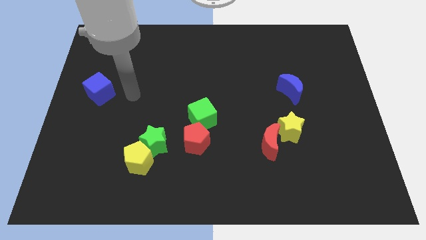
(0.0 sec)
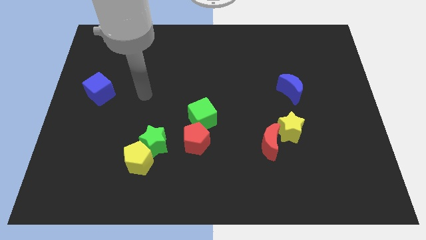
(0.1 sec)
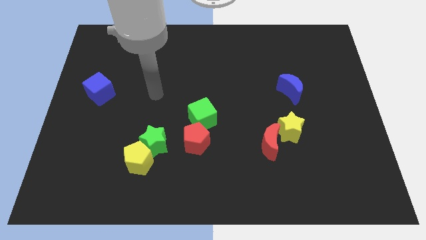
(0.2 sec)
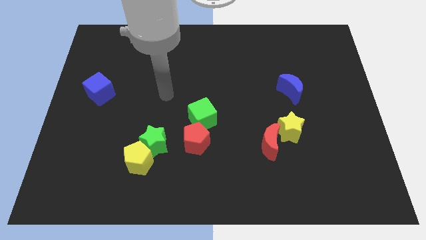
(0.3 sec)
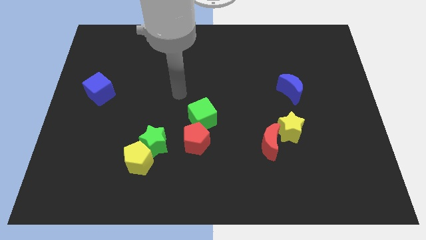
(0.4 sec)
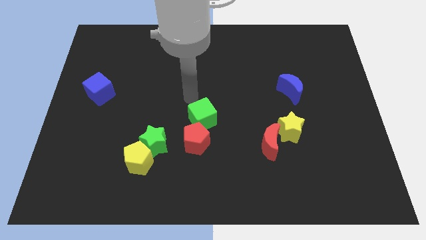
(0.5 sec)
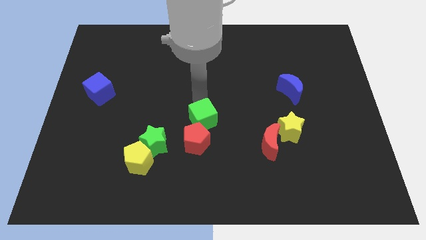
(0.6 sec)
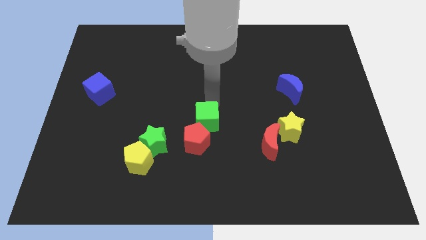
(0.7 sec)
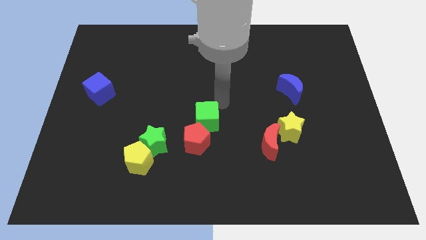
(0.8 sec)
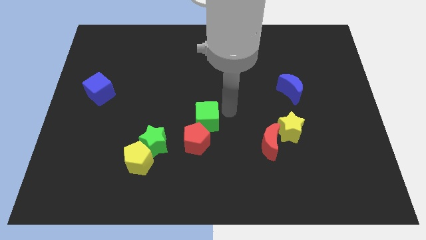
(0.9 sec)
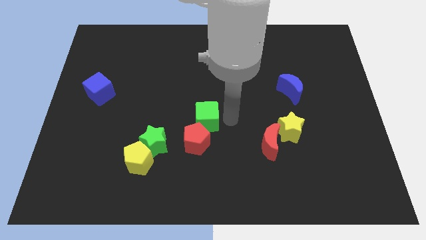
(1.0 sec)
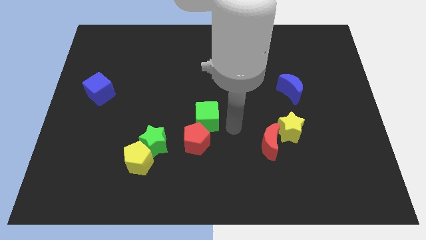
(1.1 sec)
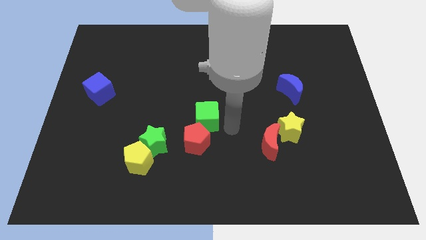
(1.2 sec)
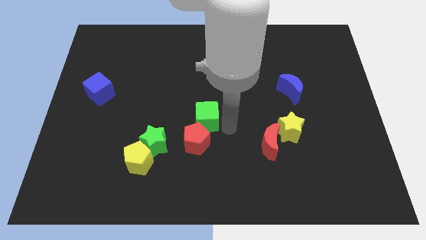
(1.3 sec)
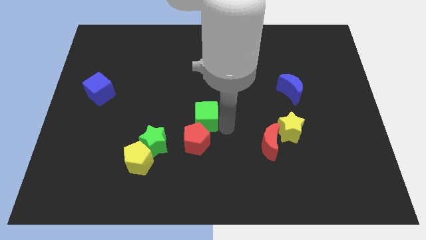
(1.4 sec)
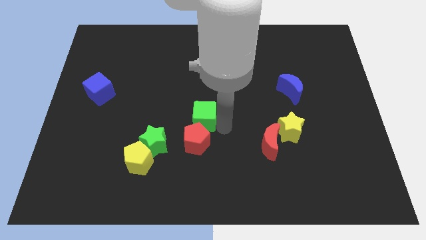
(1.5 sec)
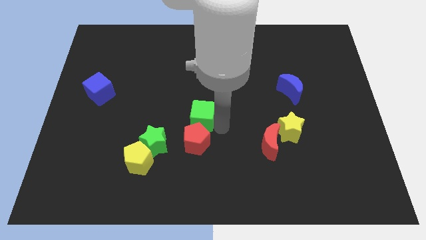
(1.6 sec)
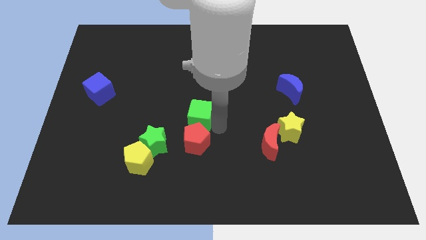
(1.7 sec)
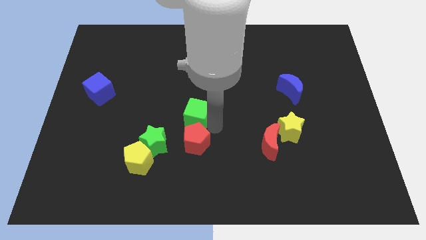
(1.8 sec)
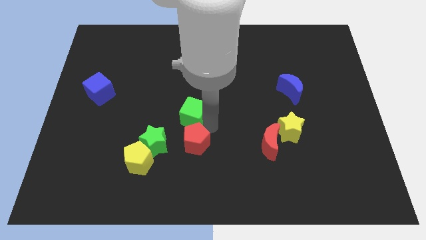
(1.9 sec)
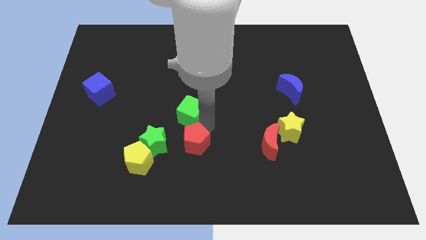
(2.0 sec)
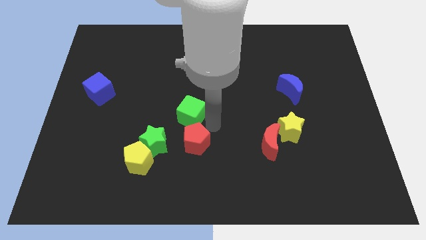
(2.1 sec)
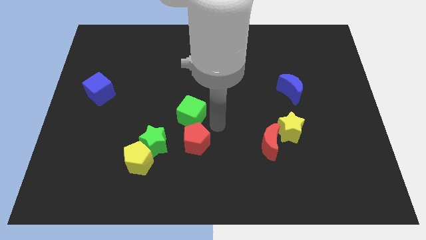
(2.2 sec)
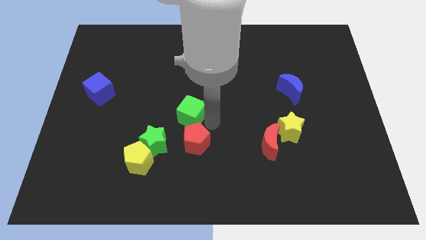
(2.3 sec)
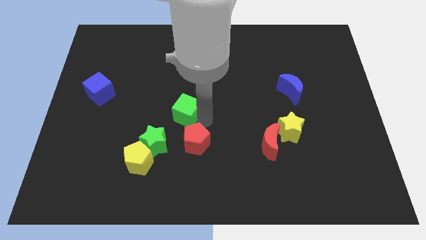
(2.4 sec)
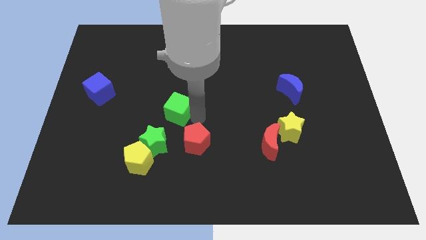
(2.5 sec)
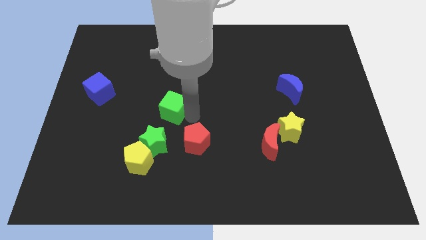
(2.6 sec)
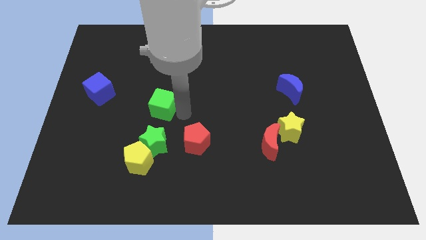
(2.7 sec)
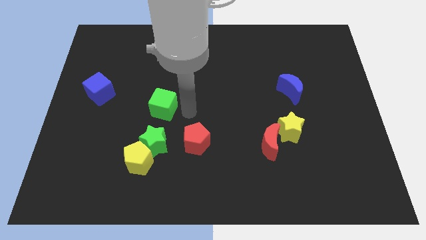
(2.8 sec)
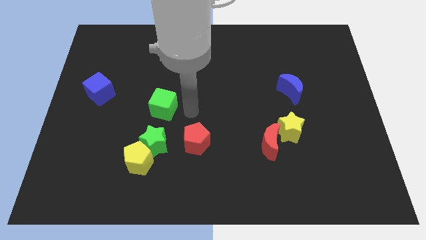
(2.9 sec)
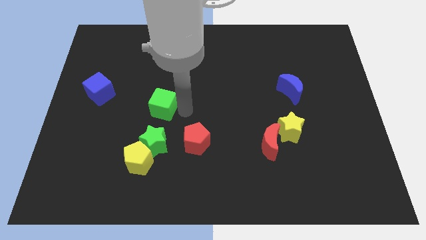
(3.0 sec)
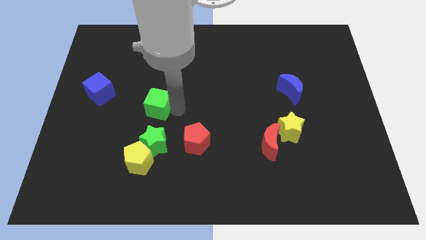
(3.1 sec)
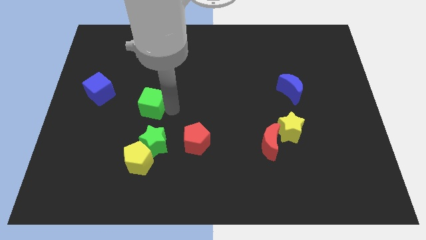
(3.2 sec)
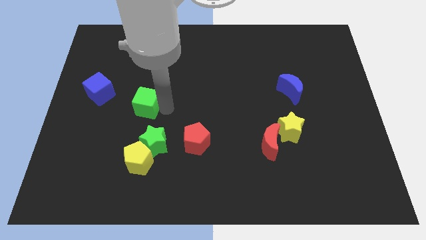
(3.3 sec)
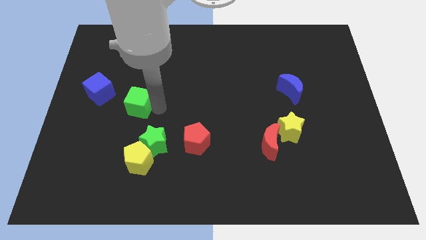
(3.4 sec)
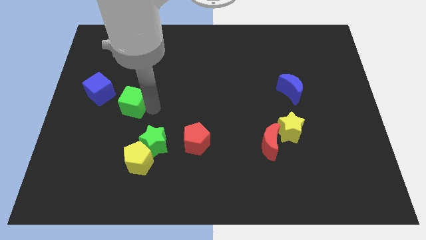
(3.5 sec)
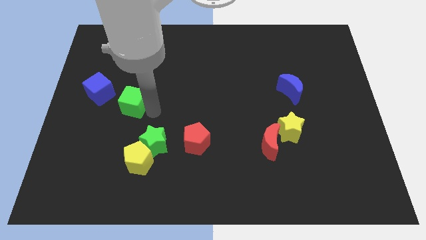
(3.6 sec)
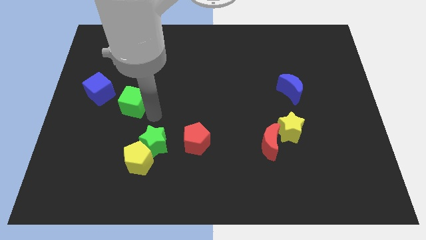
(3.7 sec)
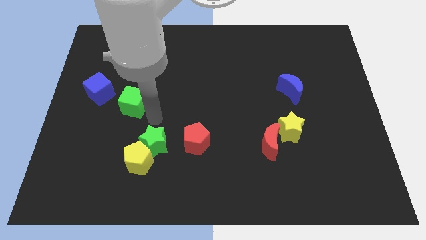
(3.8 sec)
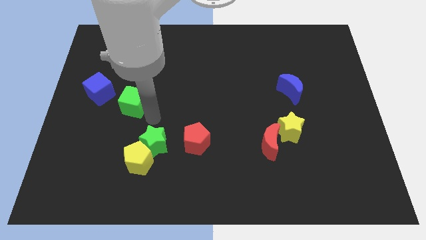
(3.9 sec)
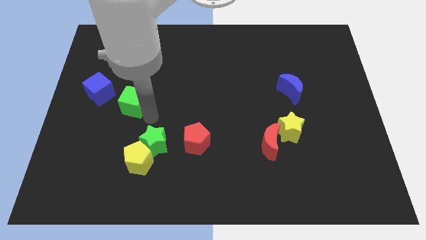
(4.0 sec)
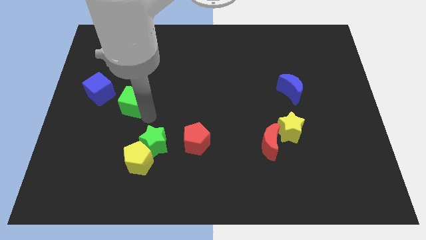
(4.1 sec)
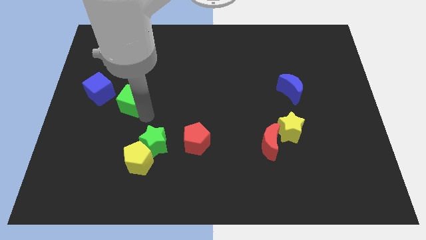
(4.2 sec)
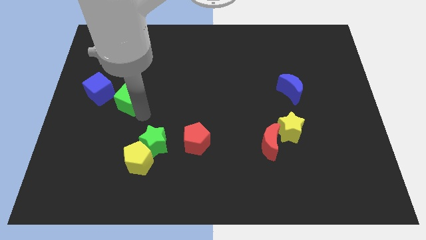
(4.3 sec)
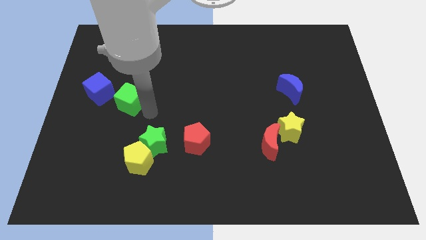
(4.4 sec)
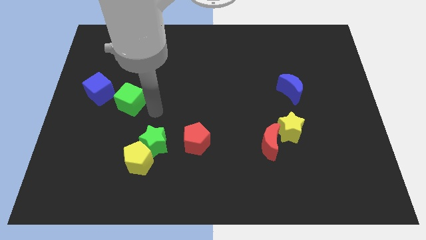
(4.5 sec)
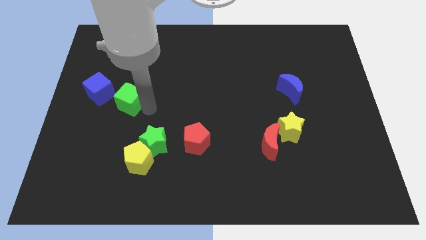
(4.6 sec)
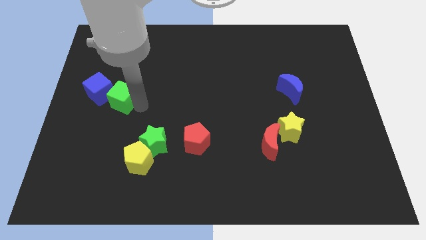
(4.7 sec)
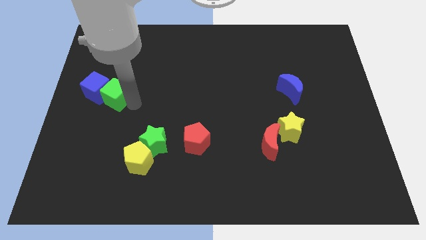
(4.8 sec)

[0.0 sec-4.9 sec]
move the green cube towards the blue cube

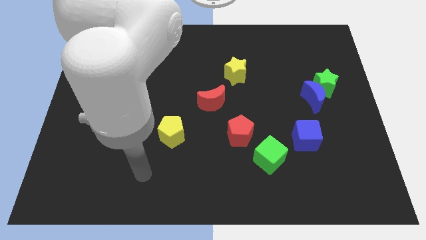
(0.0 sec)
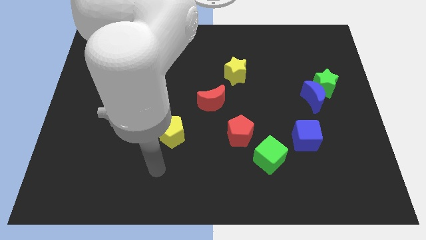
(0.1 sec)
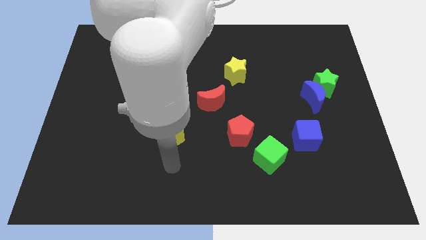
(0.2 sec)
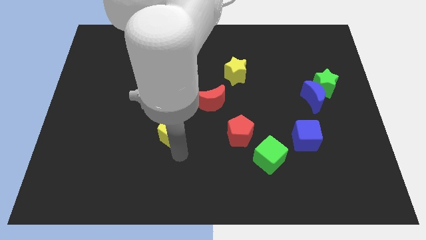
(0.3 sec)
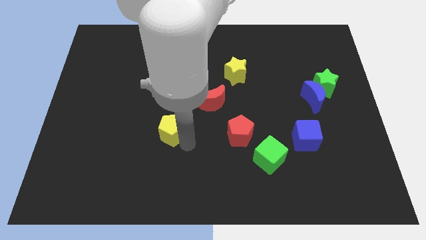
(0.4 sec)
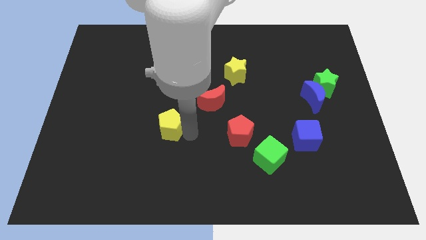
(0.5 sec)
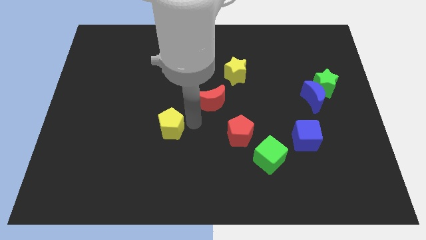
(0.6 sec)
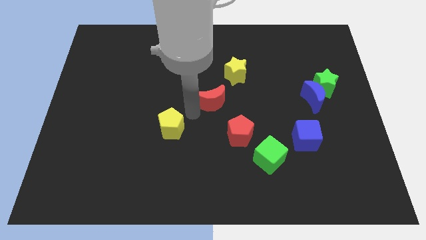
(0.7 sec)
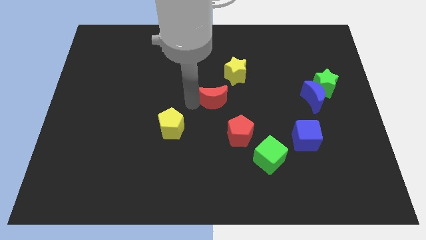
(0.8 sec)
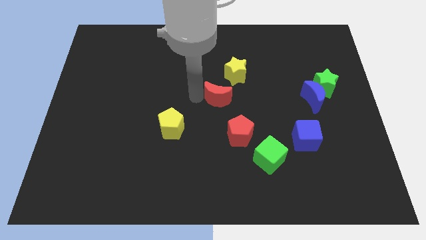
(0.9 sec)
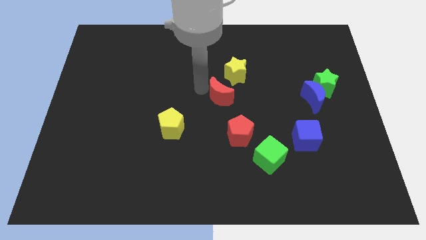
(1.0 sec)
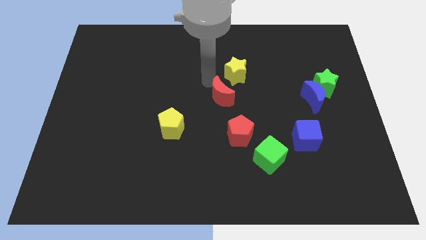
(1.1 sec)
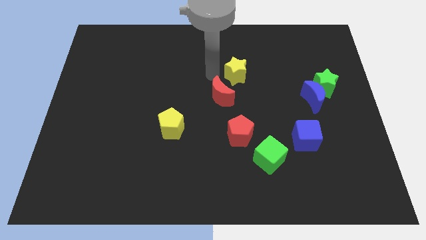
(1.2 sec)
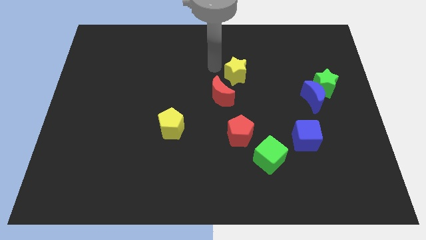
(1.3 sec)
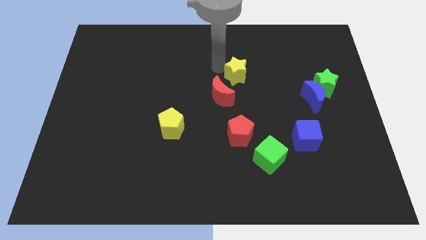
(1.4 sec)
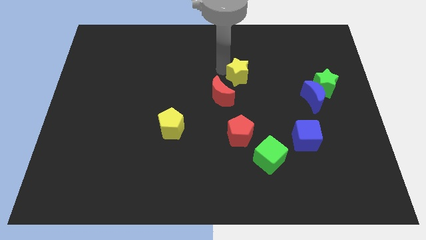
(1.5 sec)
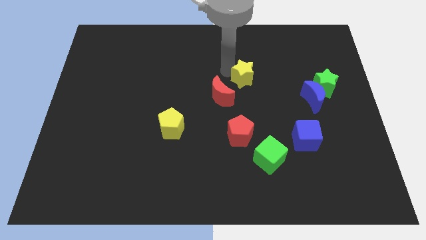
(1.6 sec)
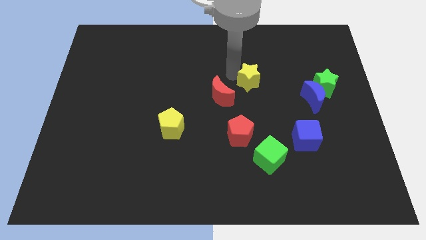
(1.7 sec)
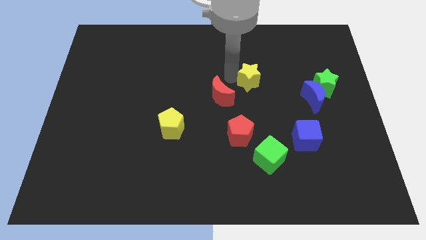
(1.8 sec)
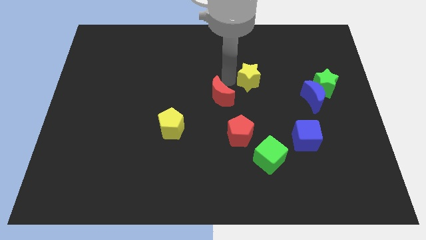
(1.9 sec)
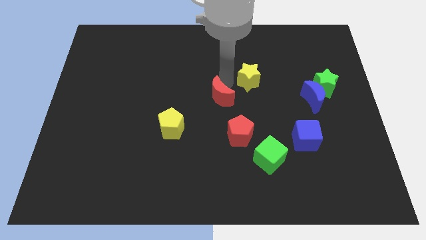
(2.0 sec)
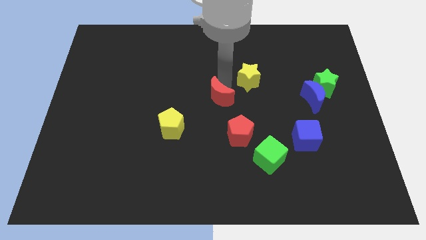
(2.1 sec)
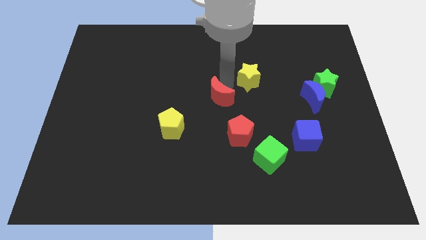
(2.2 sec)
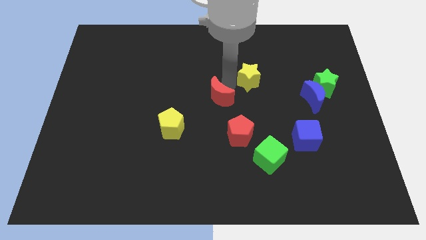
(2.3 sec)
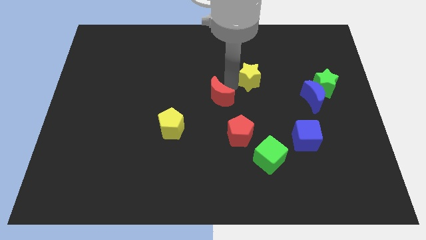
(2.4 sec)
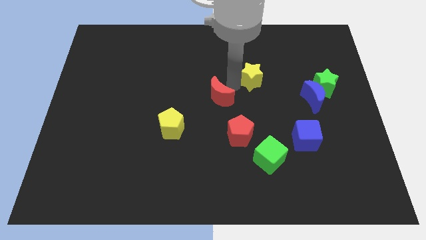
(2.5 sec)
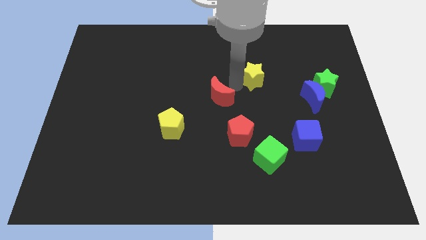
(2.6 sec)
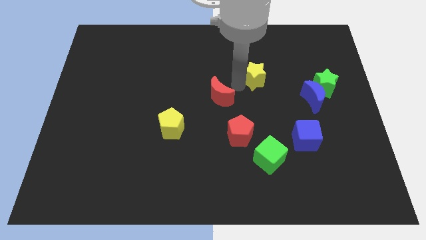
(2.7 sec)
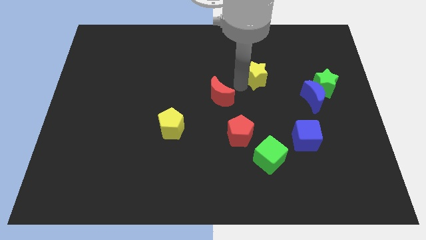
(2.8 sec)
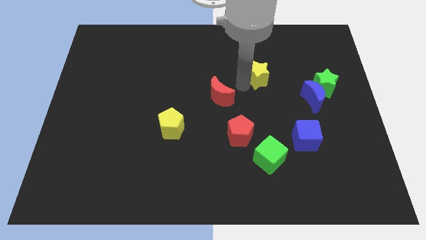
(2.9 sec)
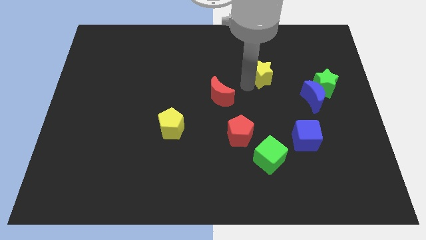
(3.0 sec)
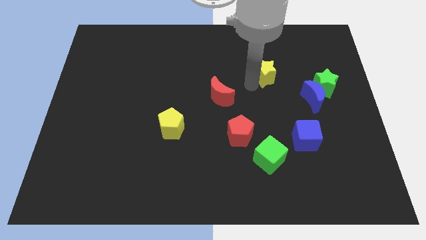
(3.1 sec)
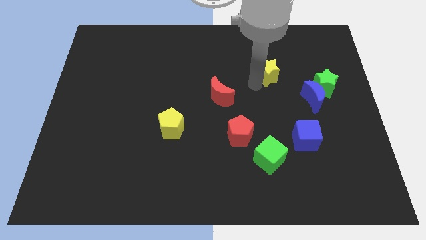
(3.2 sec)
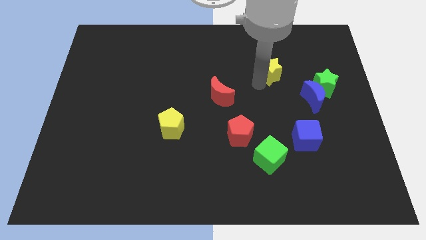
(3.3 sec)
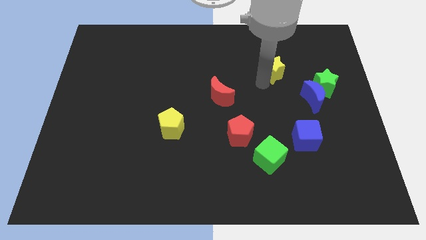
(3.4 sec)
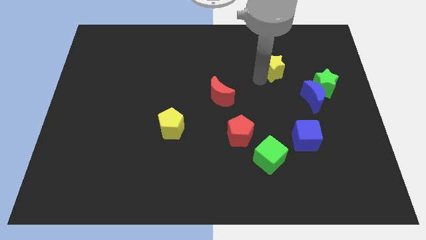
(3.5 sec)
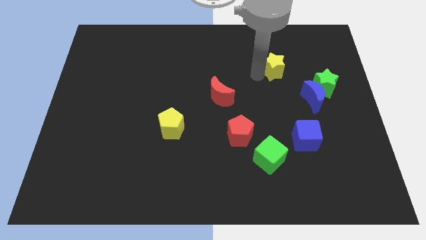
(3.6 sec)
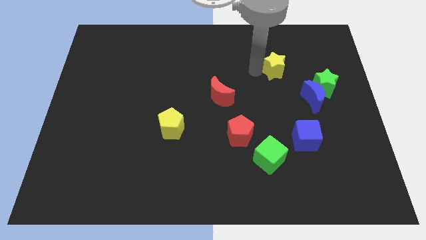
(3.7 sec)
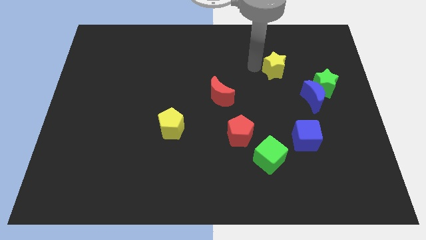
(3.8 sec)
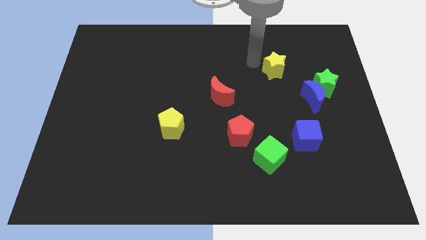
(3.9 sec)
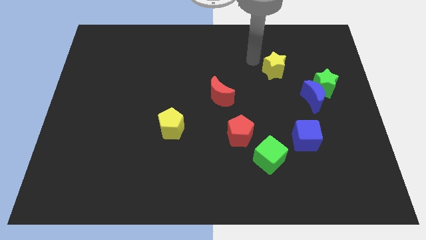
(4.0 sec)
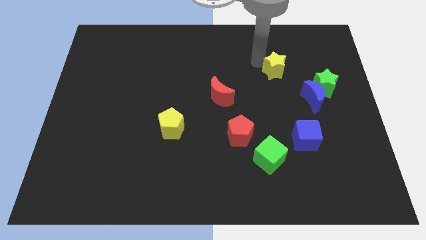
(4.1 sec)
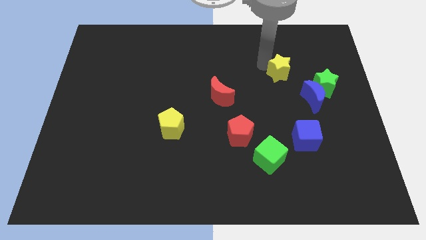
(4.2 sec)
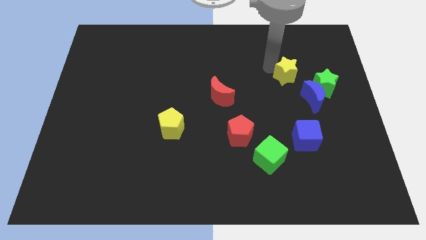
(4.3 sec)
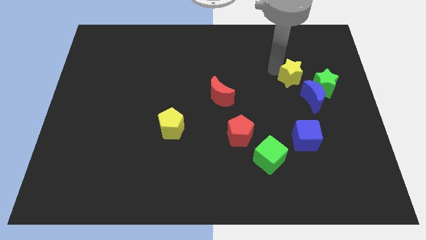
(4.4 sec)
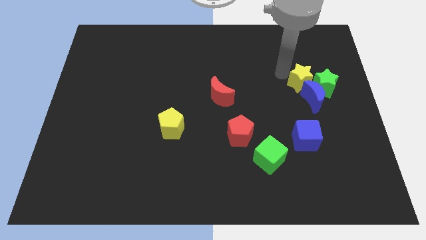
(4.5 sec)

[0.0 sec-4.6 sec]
put the yellow star to the green star
